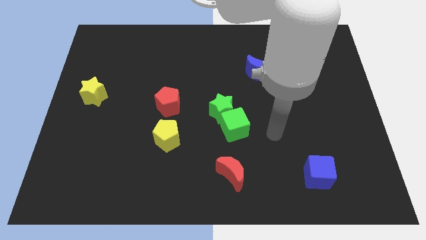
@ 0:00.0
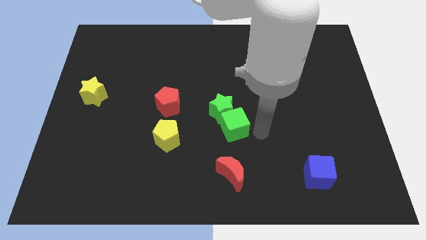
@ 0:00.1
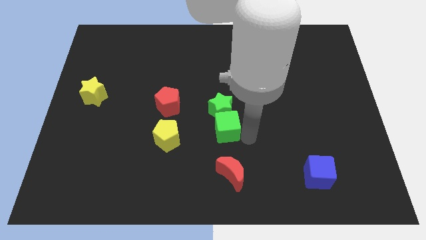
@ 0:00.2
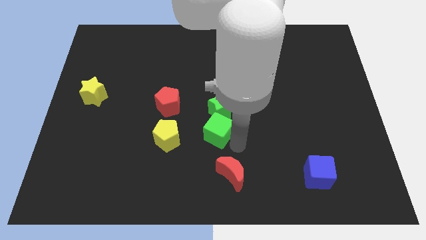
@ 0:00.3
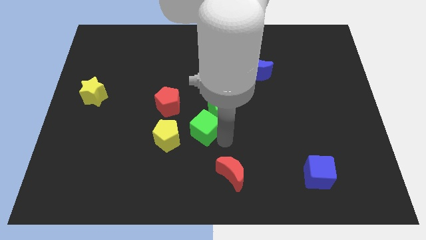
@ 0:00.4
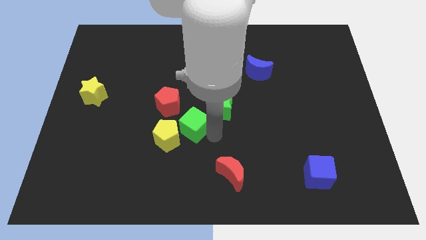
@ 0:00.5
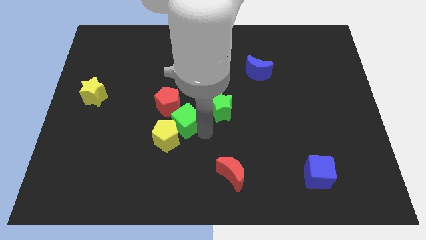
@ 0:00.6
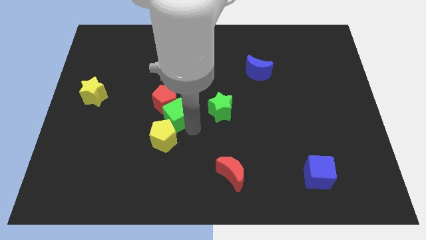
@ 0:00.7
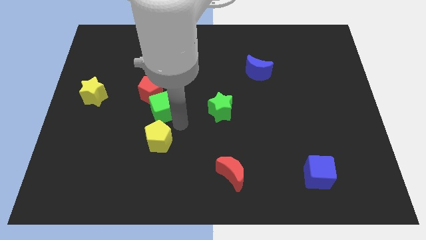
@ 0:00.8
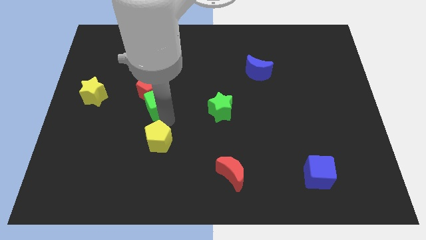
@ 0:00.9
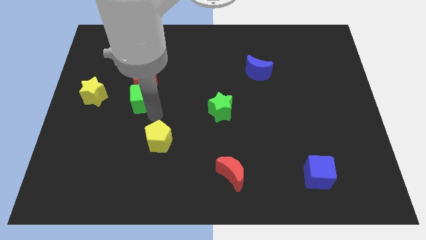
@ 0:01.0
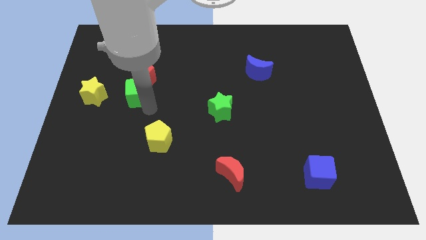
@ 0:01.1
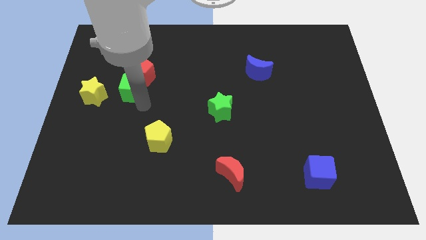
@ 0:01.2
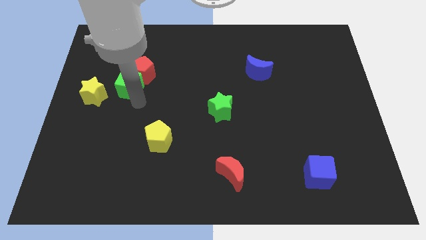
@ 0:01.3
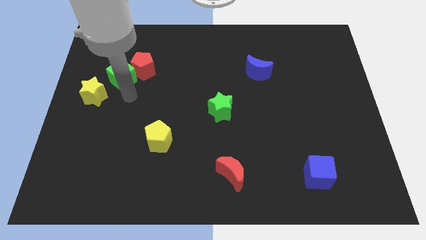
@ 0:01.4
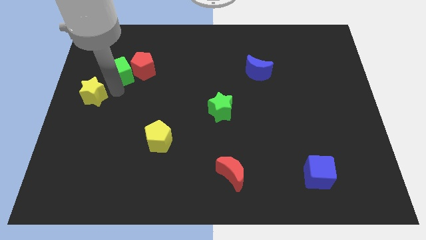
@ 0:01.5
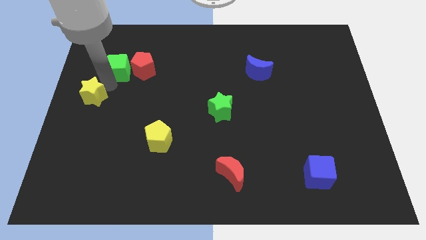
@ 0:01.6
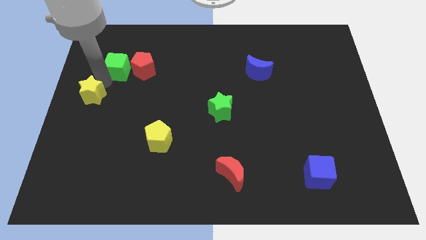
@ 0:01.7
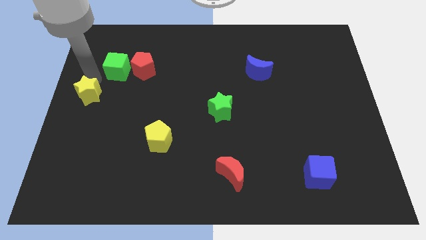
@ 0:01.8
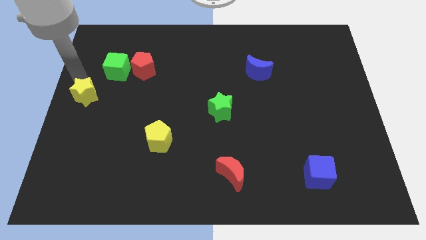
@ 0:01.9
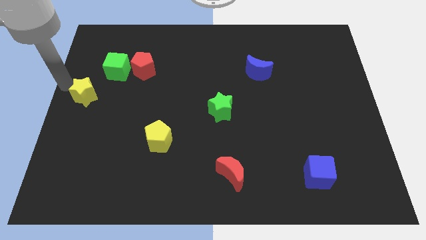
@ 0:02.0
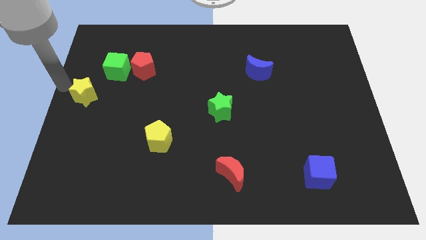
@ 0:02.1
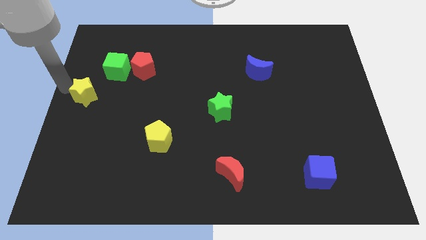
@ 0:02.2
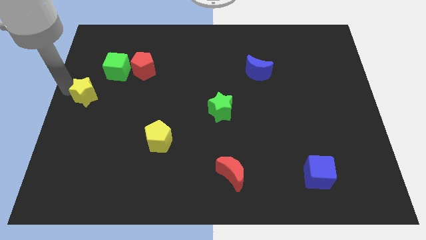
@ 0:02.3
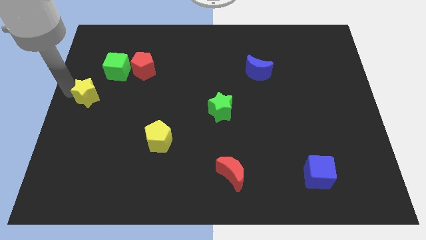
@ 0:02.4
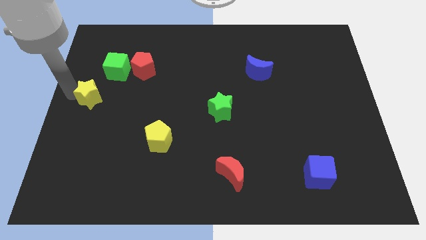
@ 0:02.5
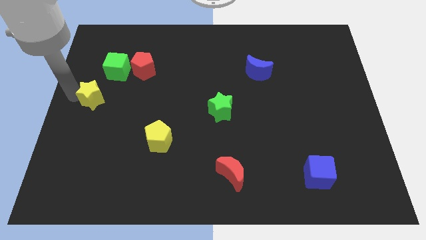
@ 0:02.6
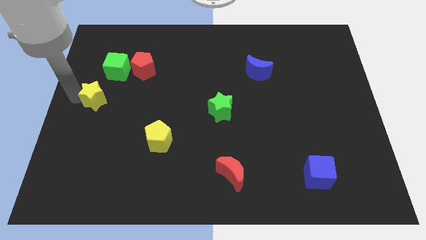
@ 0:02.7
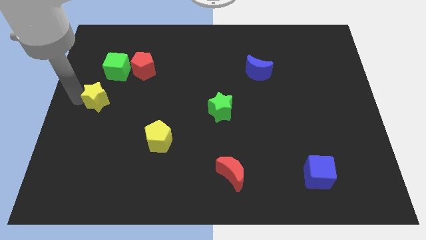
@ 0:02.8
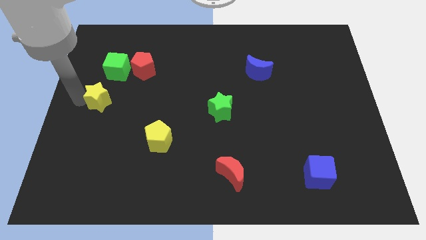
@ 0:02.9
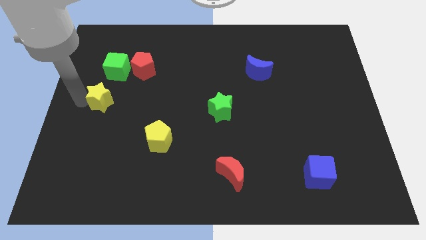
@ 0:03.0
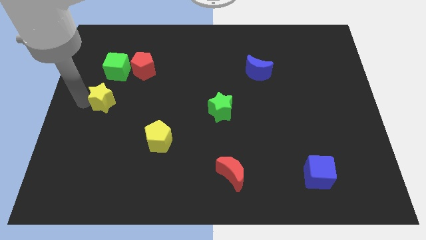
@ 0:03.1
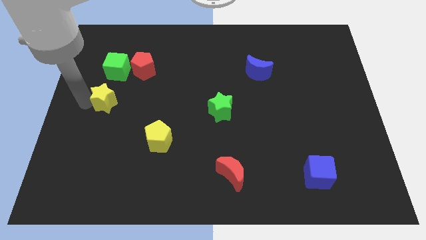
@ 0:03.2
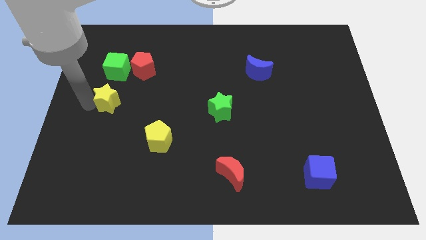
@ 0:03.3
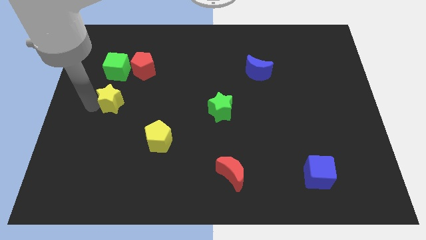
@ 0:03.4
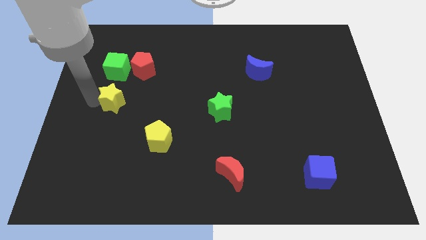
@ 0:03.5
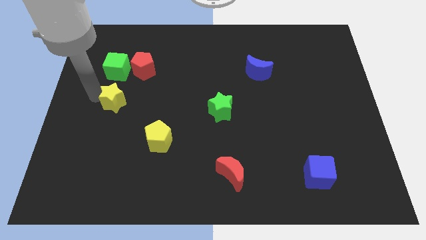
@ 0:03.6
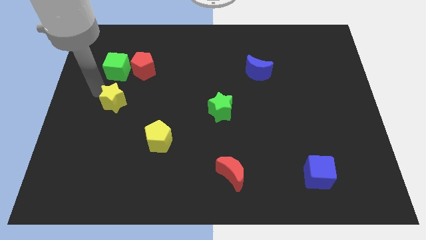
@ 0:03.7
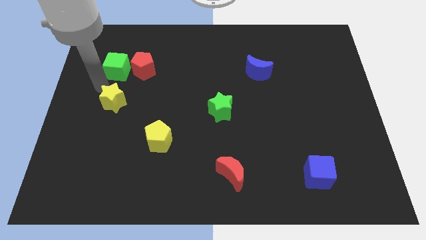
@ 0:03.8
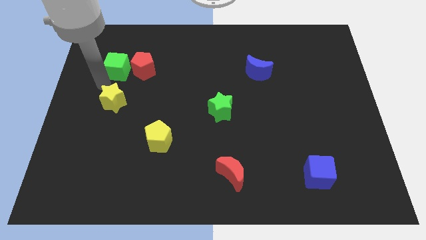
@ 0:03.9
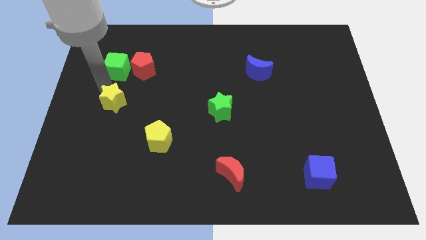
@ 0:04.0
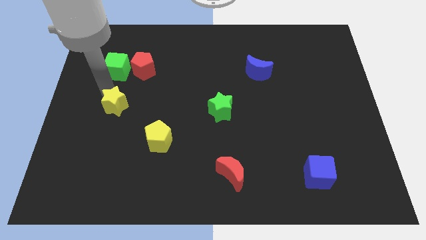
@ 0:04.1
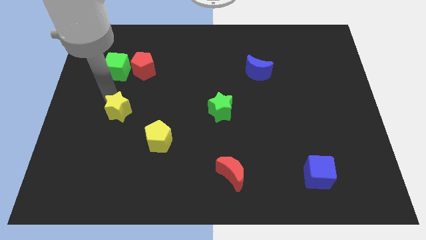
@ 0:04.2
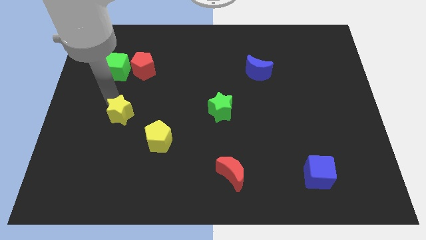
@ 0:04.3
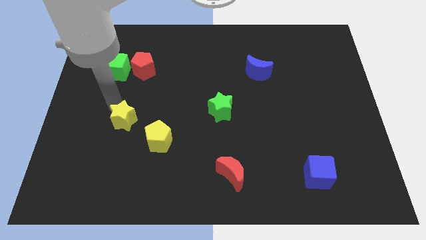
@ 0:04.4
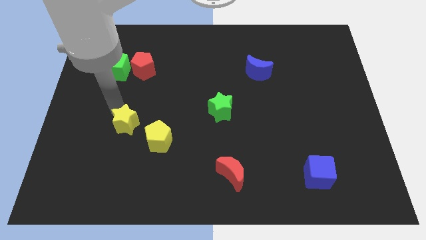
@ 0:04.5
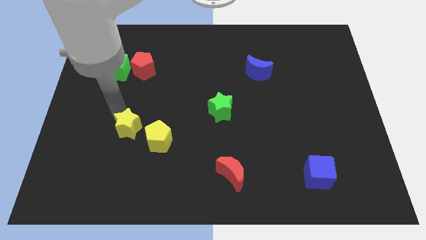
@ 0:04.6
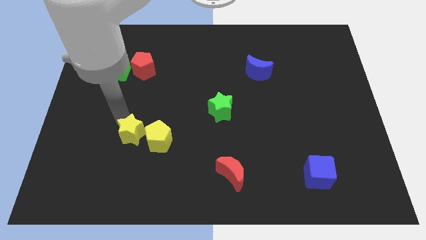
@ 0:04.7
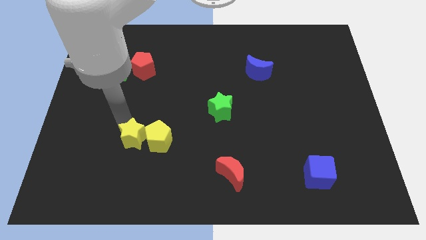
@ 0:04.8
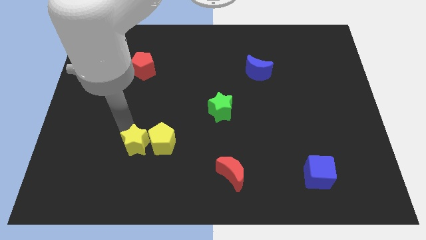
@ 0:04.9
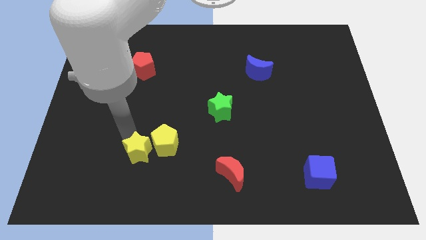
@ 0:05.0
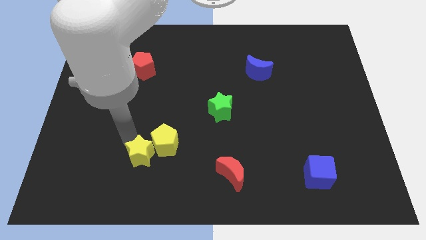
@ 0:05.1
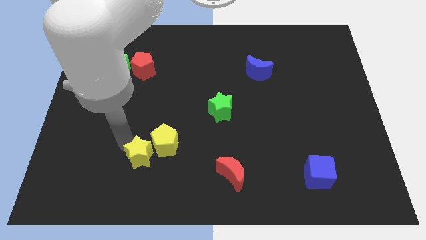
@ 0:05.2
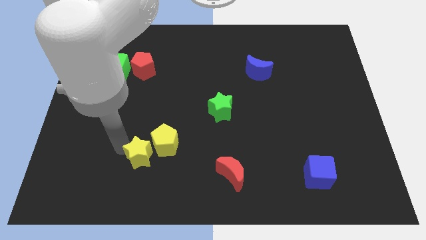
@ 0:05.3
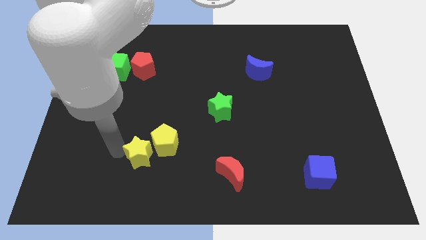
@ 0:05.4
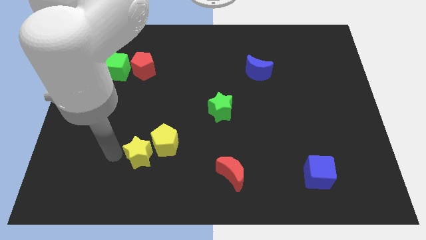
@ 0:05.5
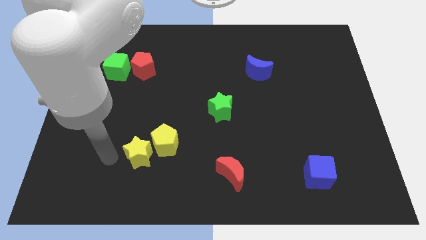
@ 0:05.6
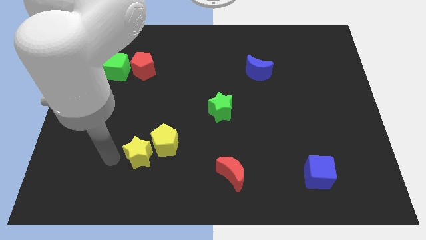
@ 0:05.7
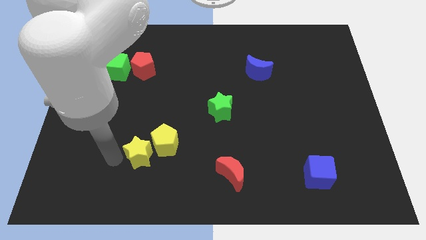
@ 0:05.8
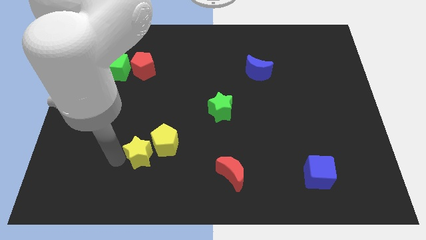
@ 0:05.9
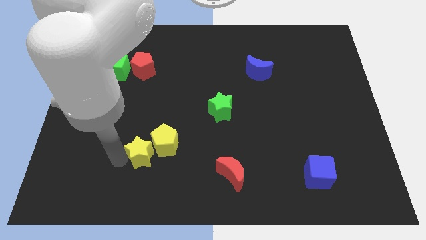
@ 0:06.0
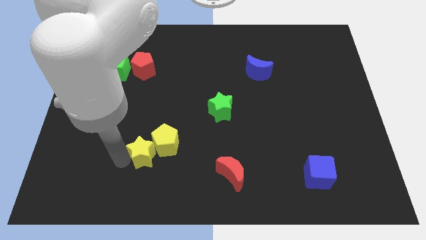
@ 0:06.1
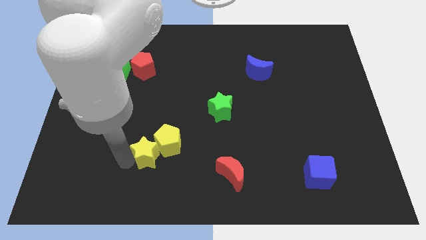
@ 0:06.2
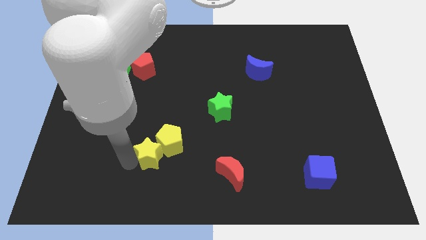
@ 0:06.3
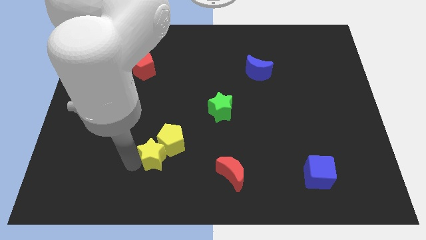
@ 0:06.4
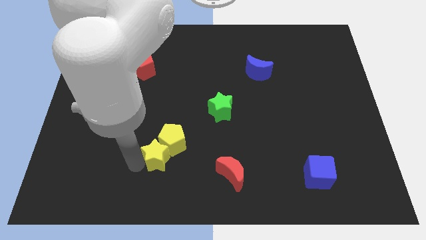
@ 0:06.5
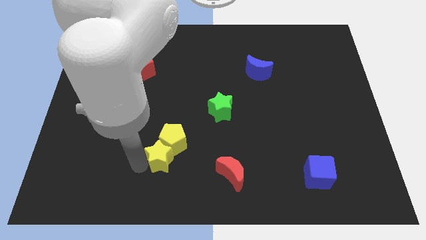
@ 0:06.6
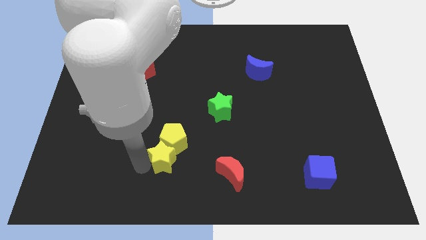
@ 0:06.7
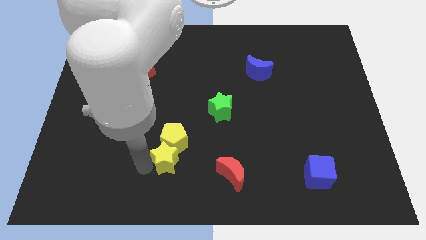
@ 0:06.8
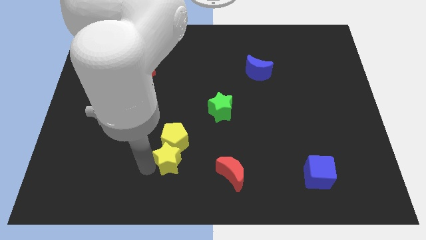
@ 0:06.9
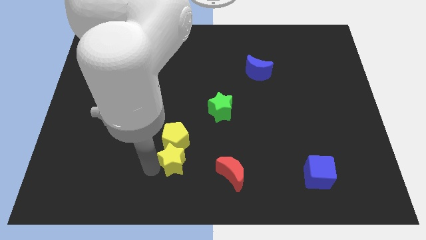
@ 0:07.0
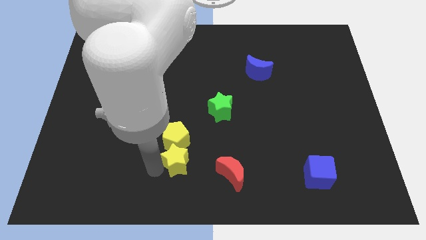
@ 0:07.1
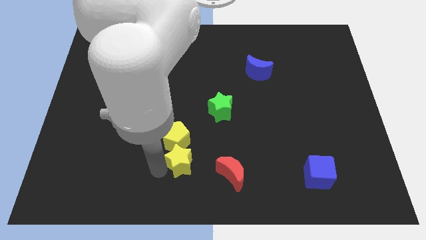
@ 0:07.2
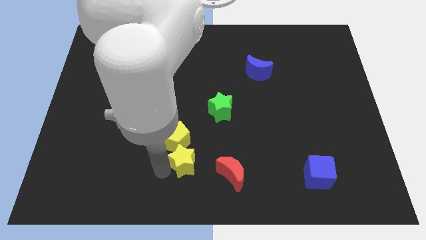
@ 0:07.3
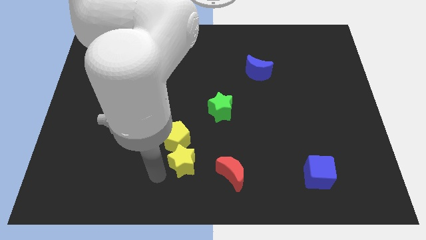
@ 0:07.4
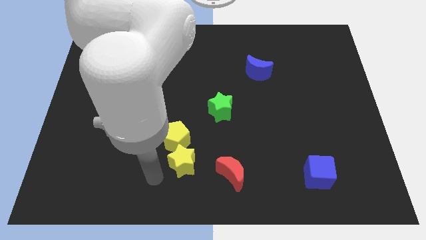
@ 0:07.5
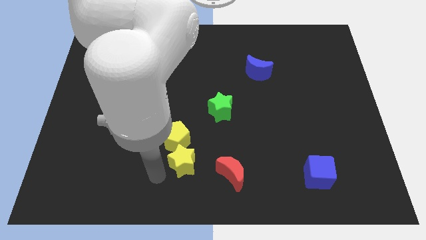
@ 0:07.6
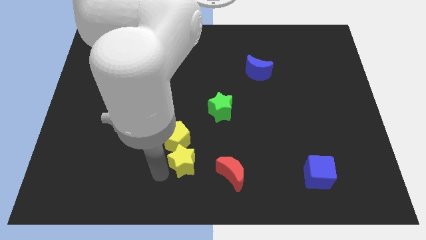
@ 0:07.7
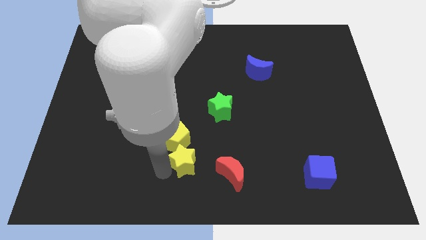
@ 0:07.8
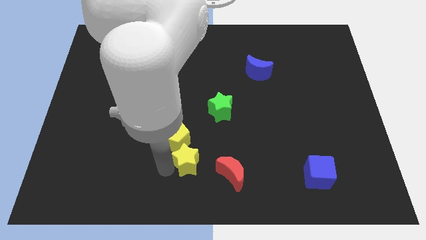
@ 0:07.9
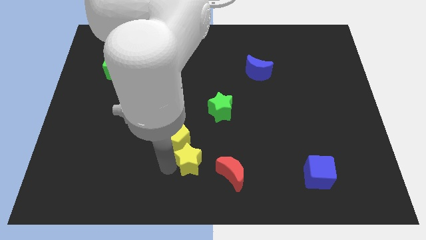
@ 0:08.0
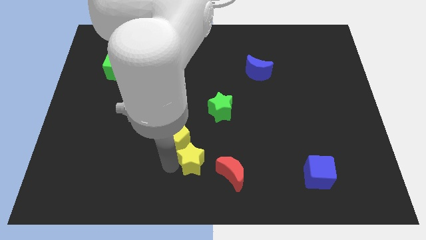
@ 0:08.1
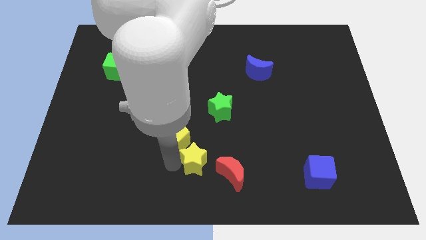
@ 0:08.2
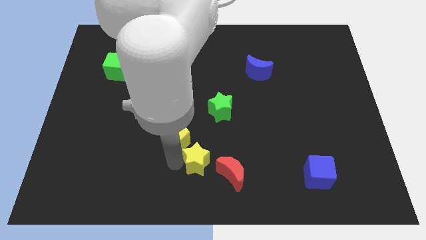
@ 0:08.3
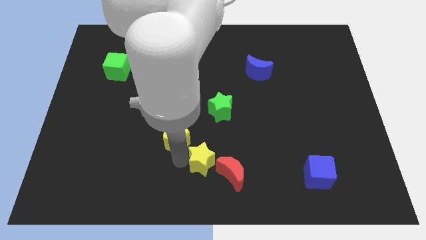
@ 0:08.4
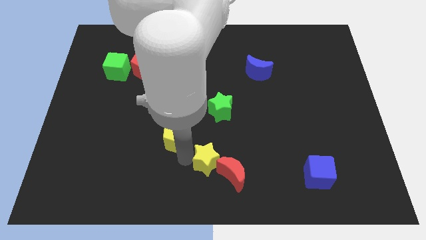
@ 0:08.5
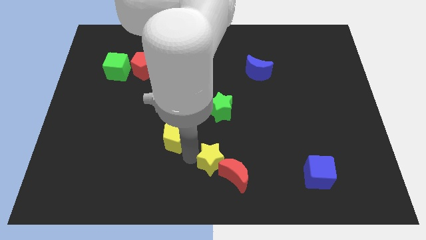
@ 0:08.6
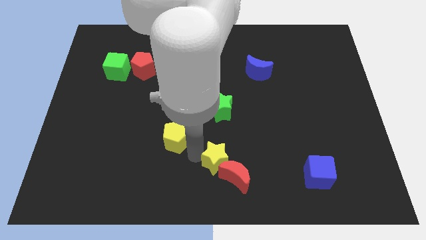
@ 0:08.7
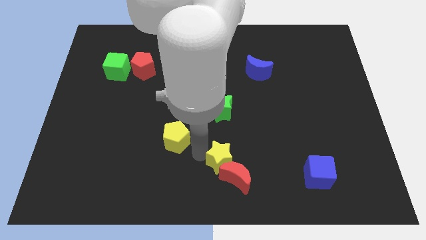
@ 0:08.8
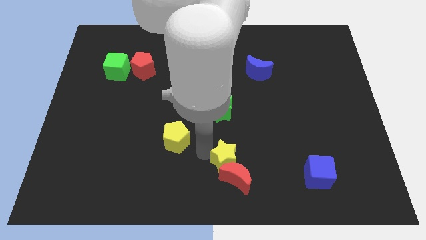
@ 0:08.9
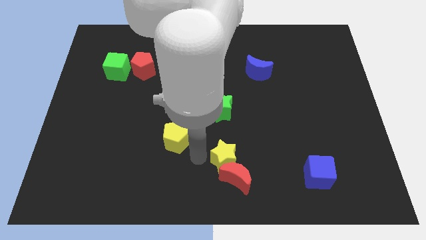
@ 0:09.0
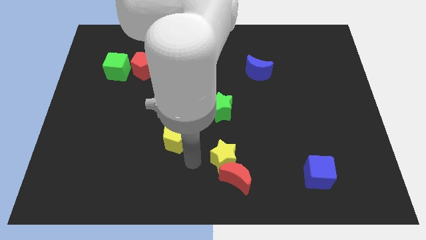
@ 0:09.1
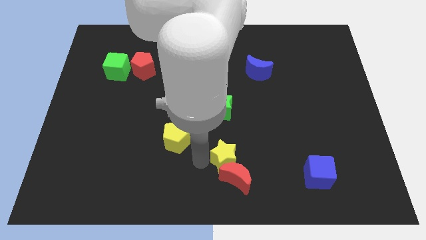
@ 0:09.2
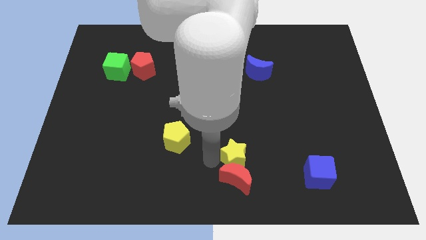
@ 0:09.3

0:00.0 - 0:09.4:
put the yellow star to the top right of the red moon
